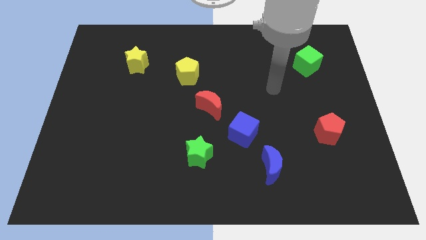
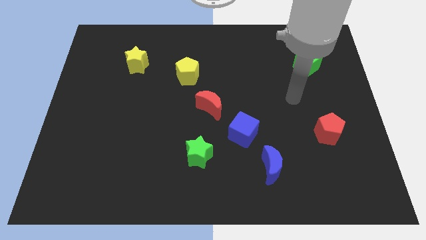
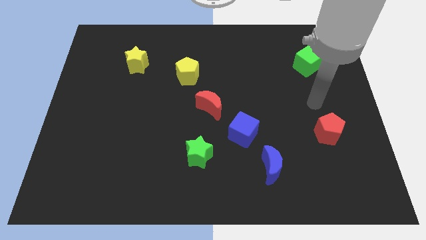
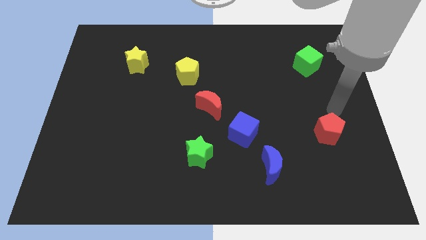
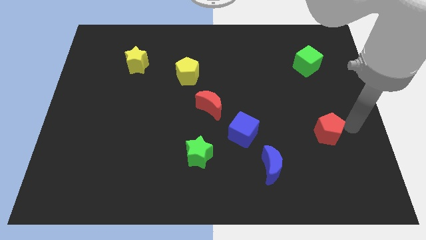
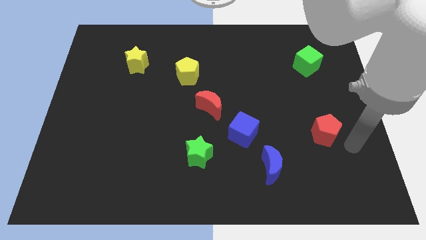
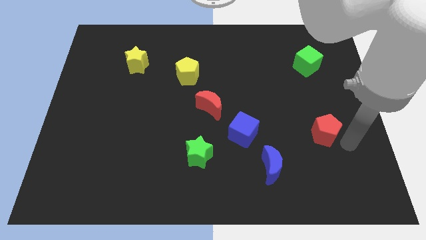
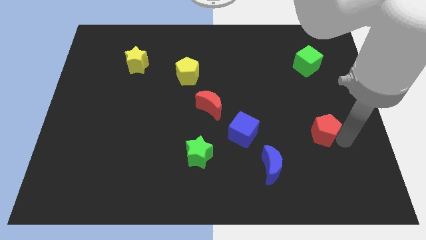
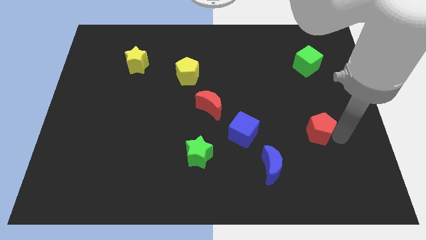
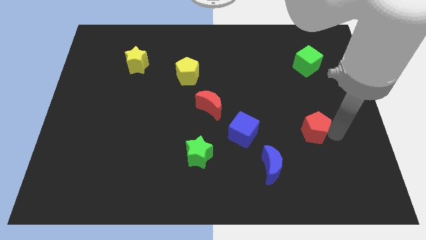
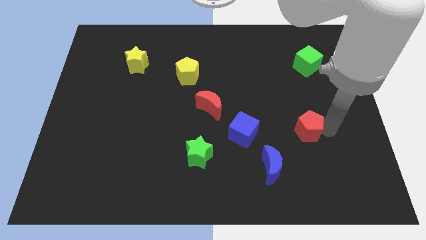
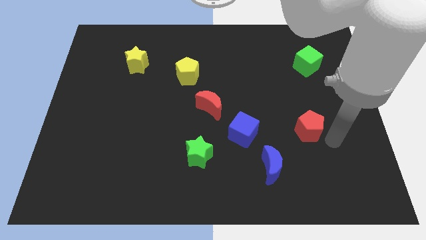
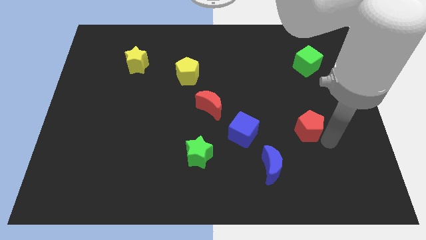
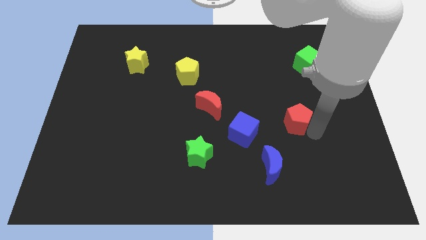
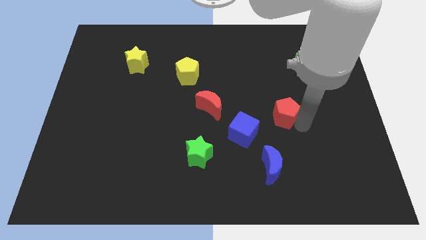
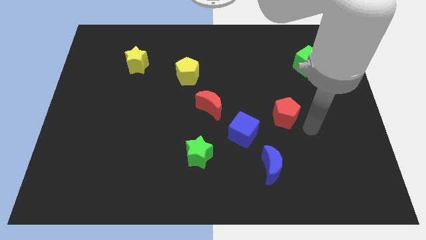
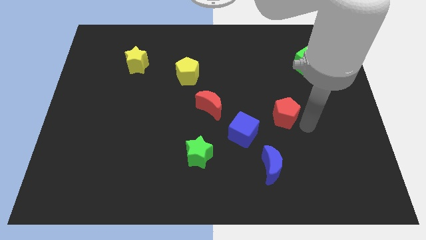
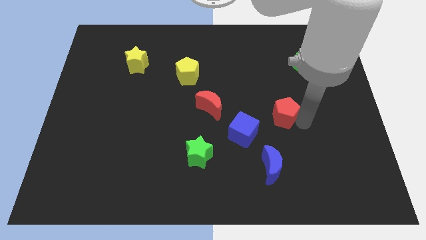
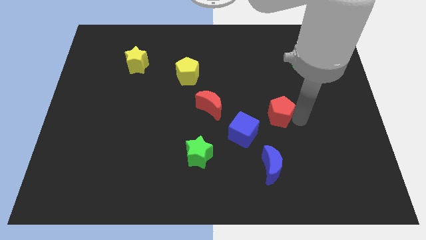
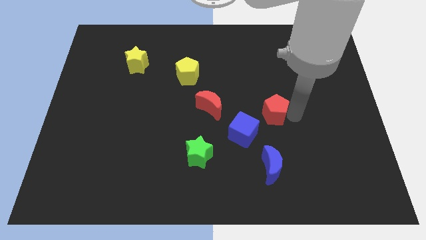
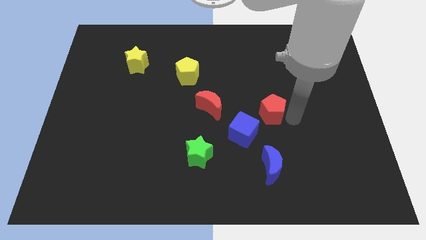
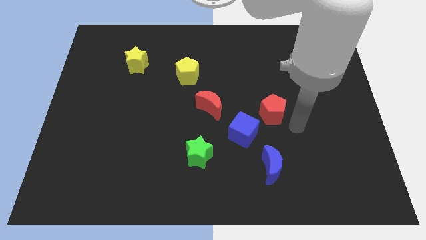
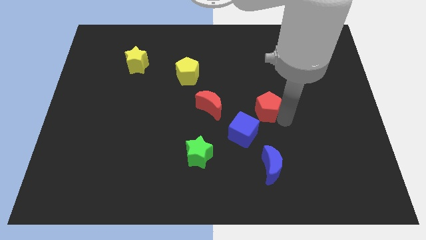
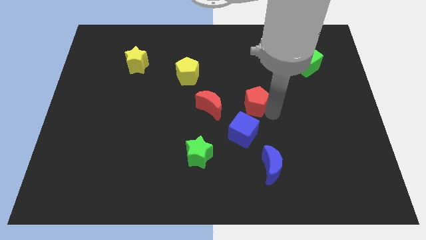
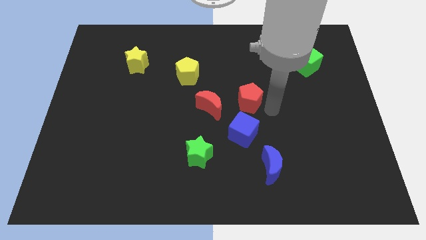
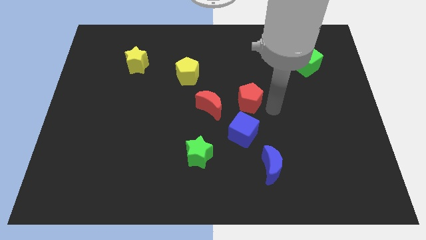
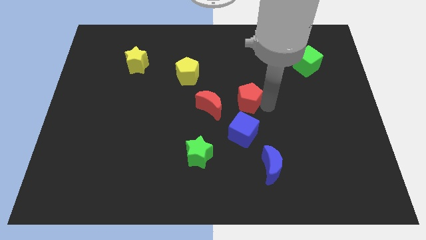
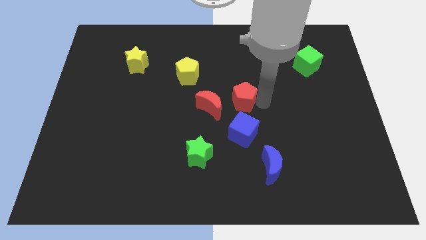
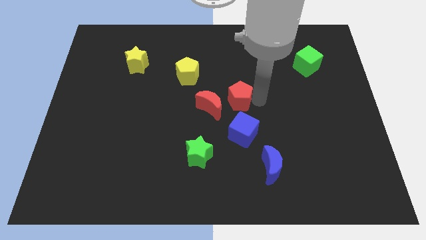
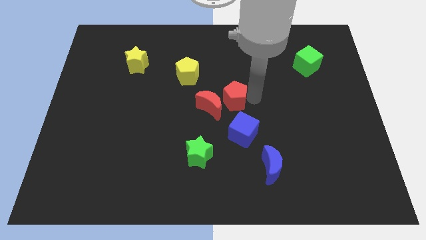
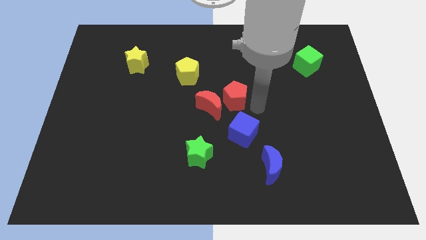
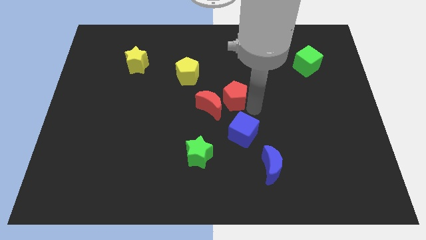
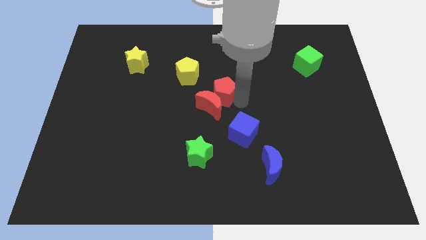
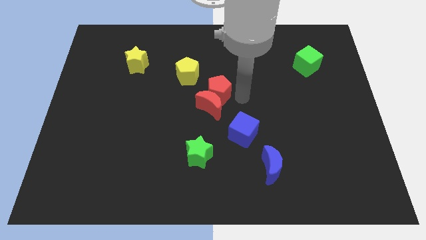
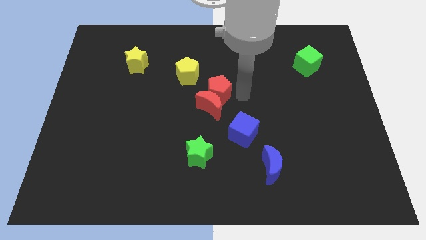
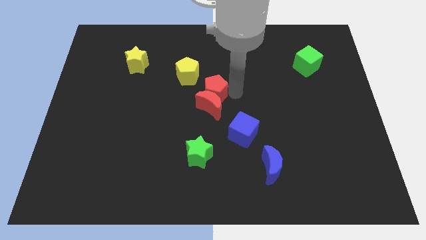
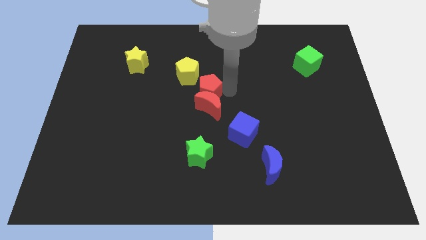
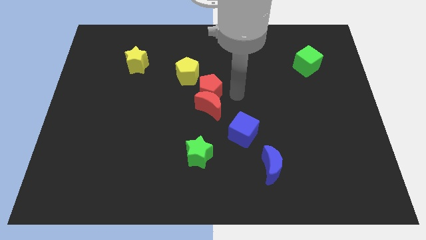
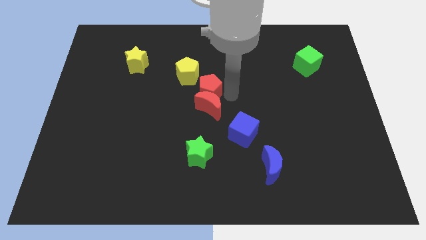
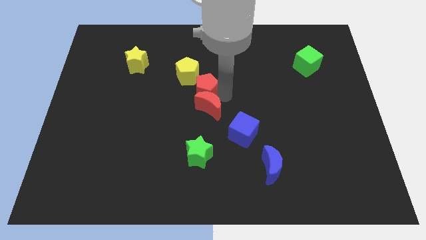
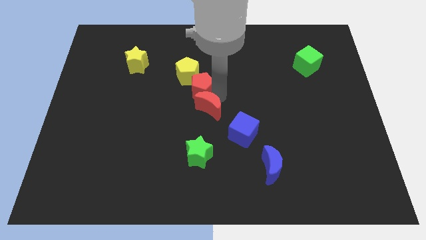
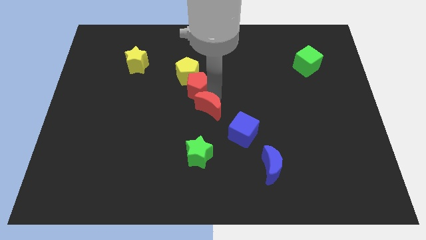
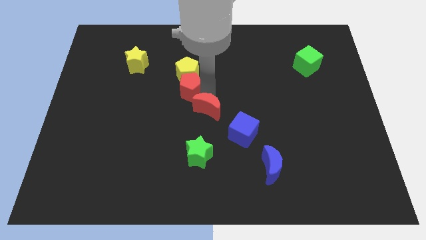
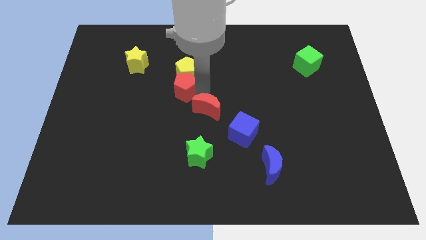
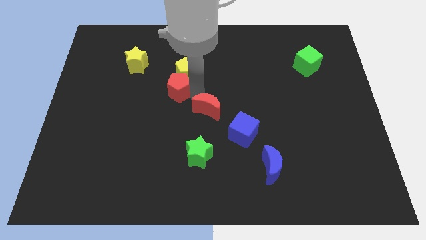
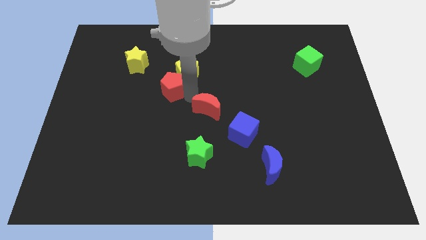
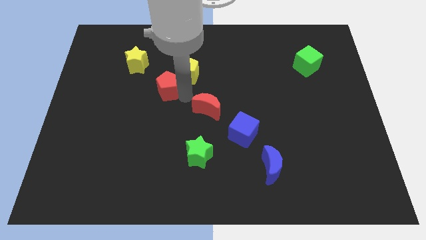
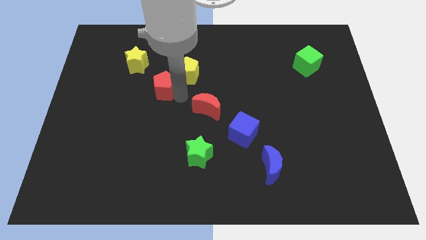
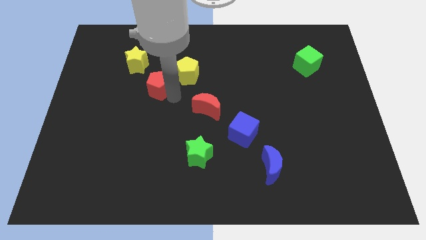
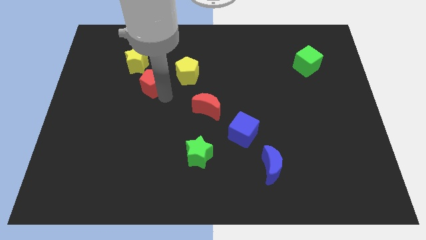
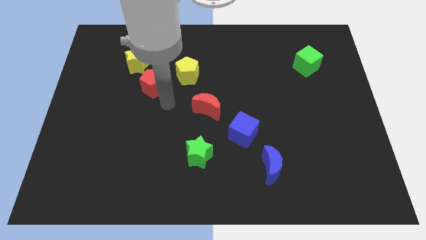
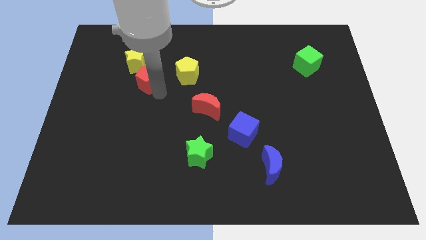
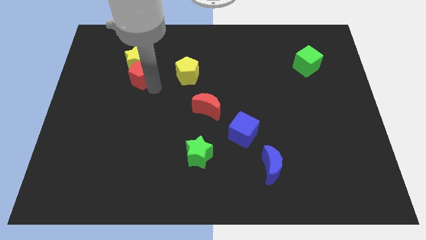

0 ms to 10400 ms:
push the red pentagon to the yellow star

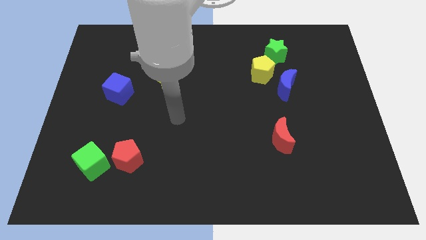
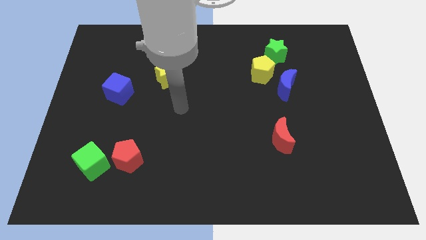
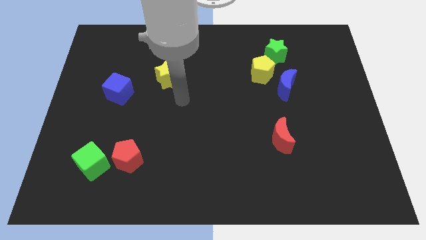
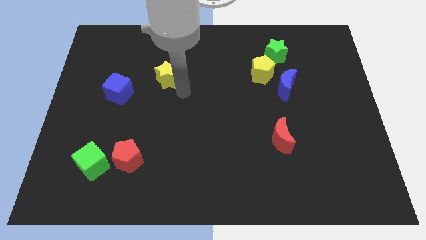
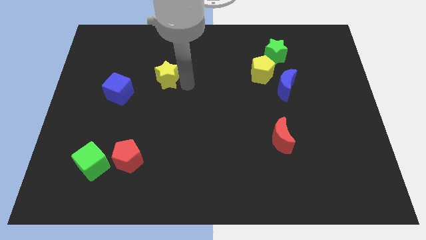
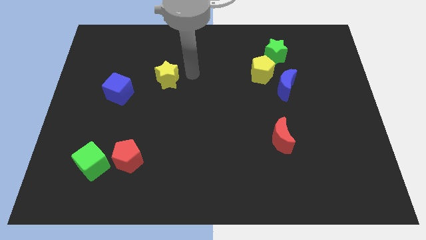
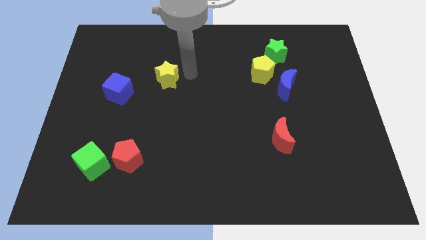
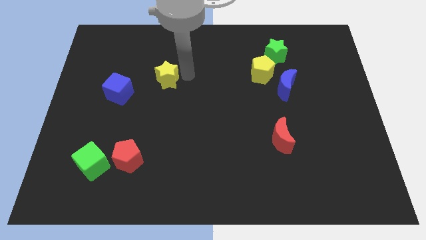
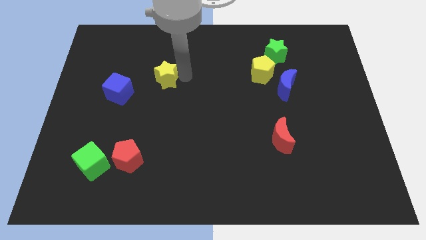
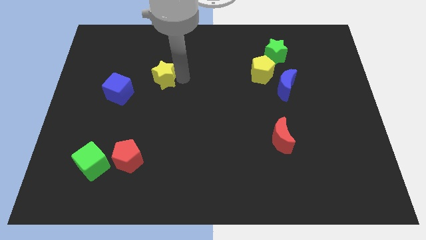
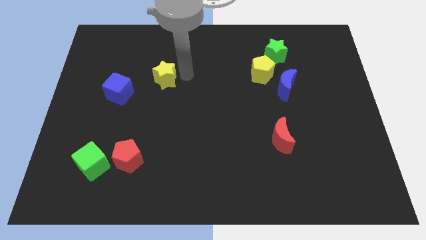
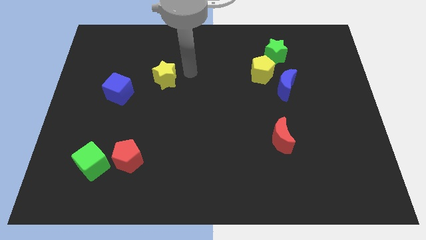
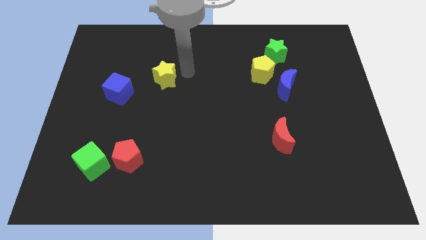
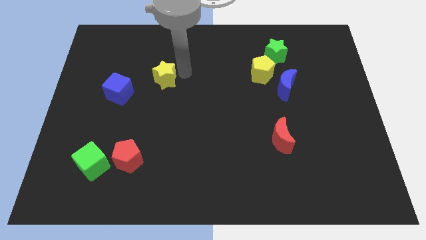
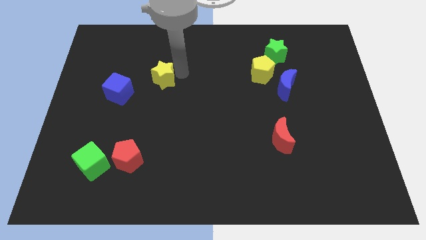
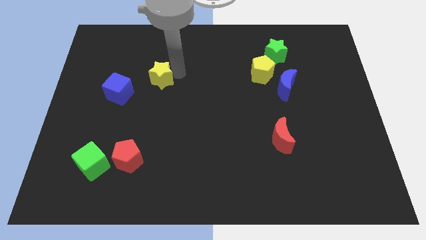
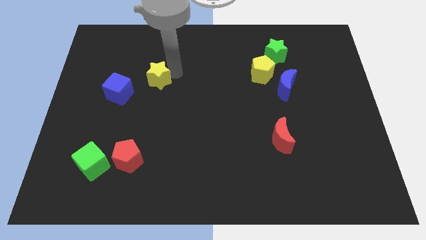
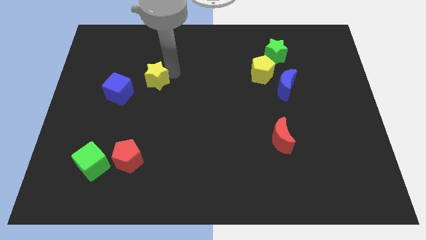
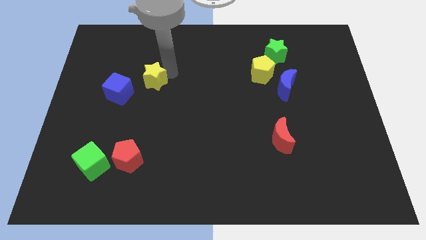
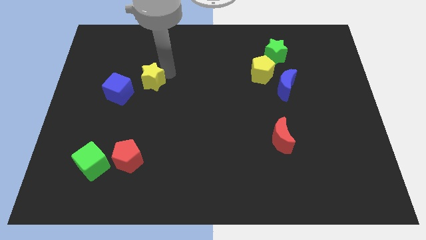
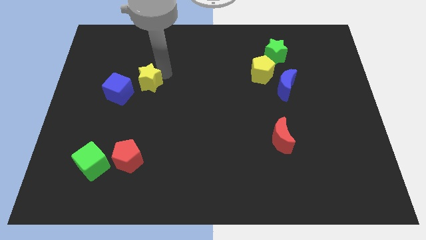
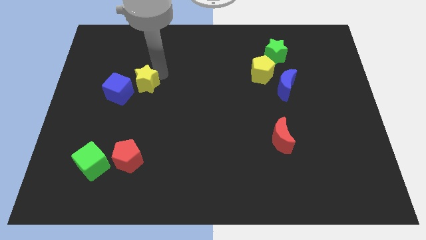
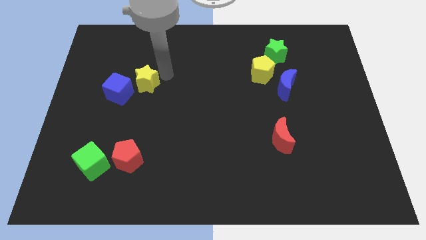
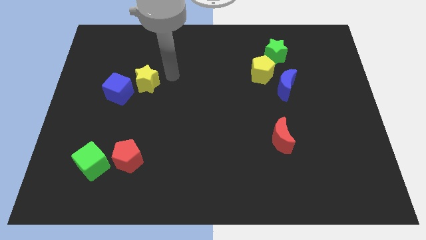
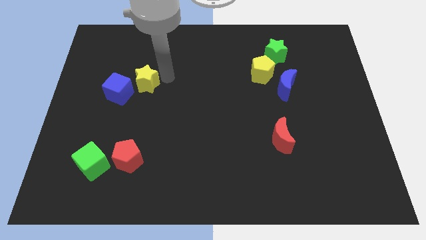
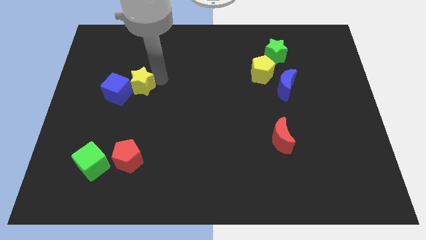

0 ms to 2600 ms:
slide the yellow star to the blue cube
